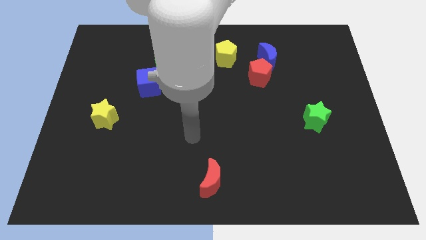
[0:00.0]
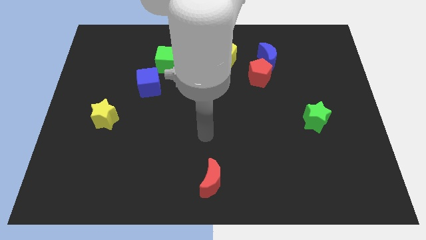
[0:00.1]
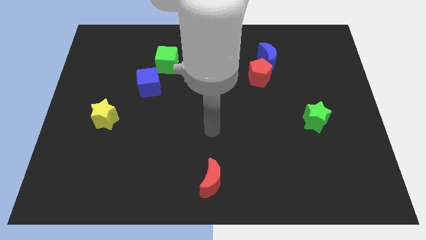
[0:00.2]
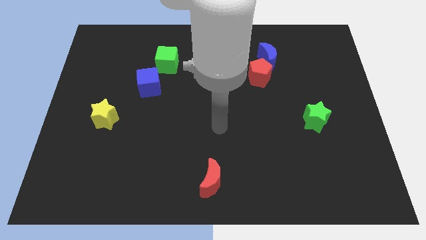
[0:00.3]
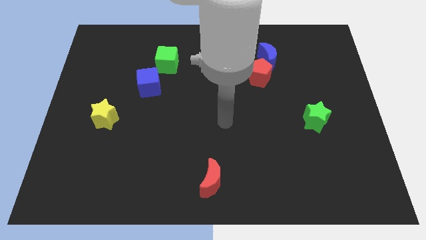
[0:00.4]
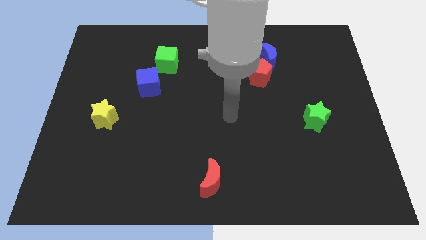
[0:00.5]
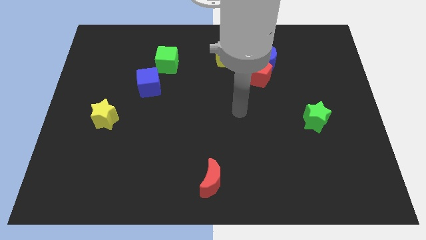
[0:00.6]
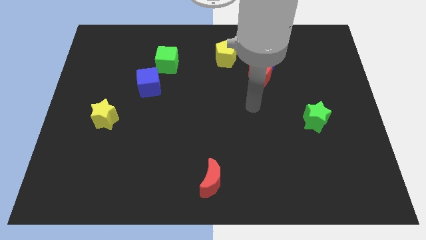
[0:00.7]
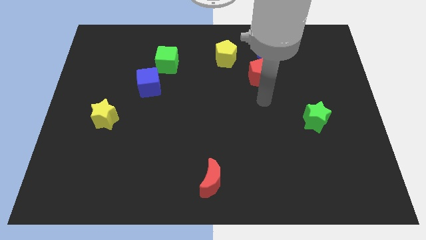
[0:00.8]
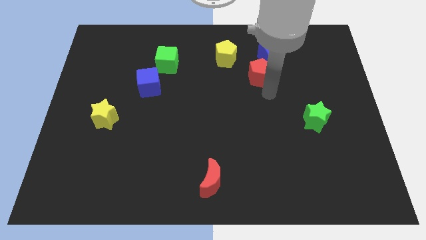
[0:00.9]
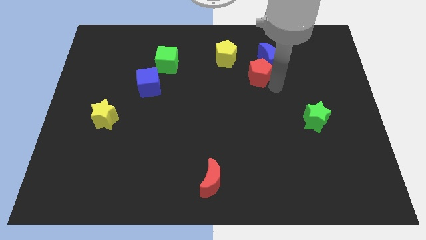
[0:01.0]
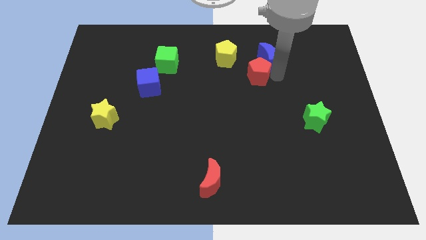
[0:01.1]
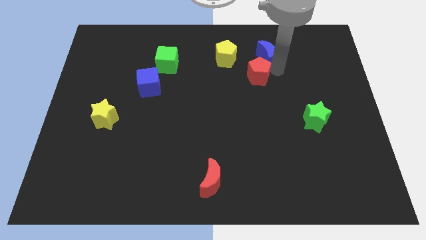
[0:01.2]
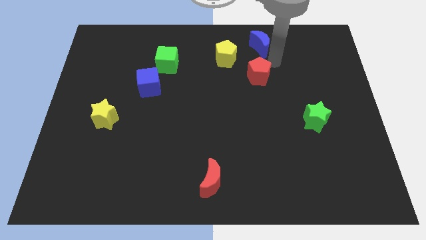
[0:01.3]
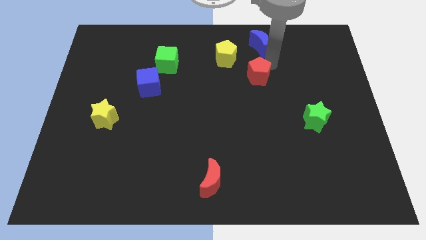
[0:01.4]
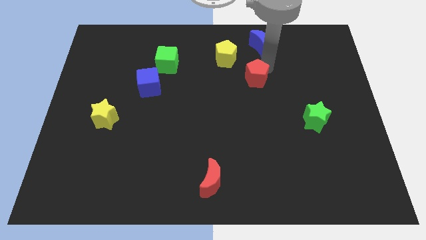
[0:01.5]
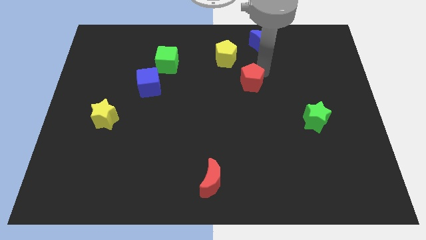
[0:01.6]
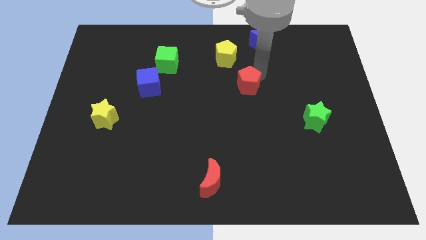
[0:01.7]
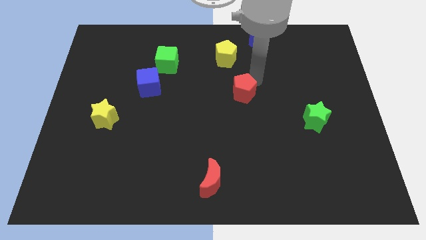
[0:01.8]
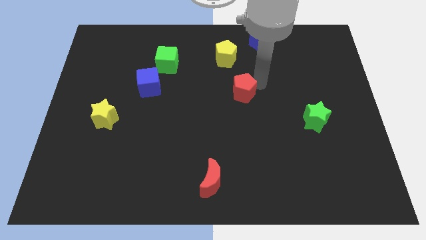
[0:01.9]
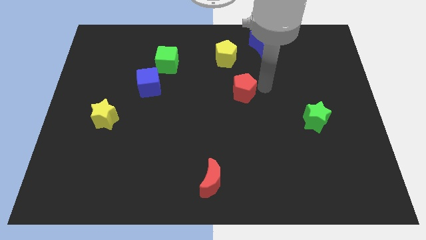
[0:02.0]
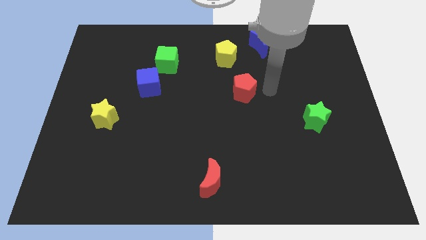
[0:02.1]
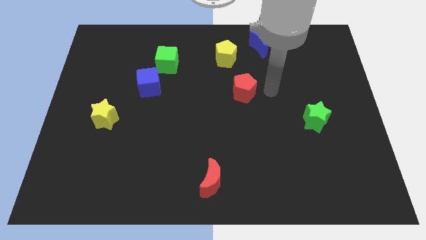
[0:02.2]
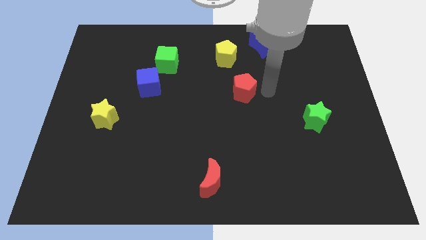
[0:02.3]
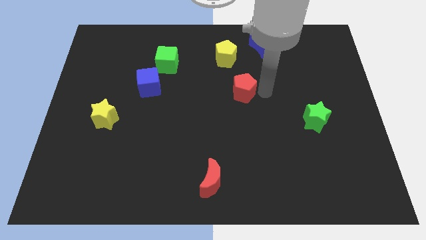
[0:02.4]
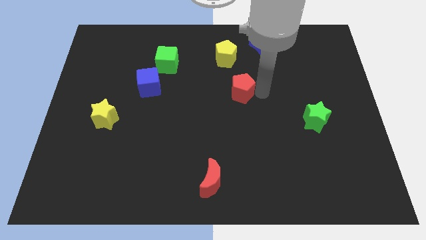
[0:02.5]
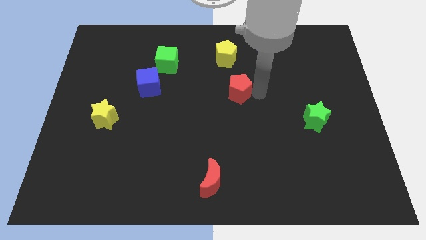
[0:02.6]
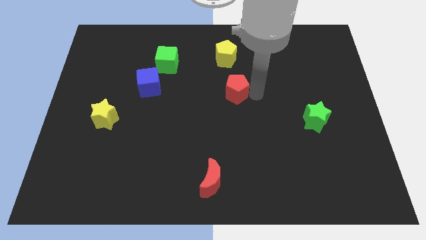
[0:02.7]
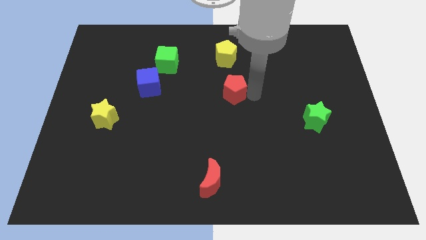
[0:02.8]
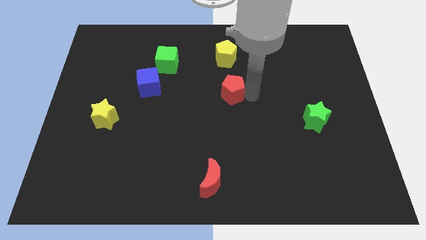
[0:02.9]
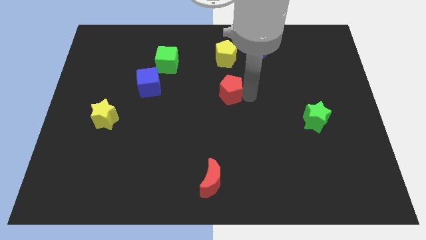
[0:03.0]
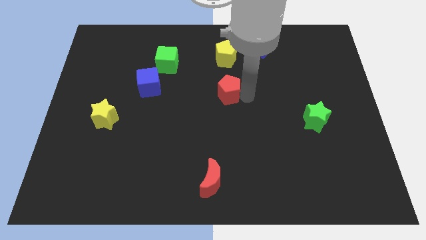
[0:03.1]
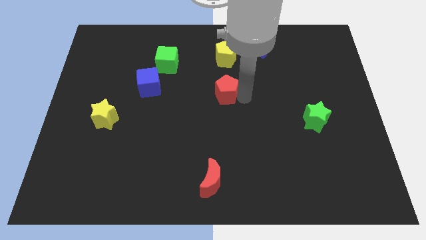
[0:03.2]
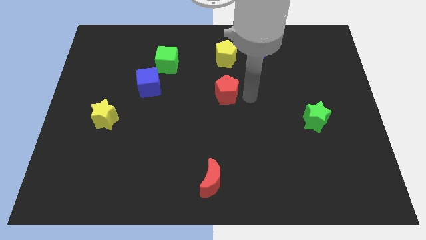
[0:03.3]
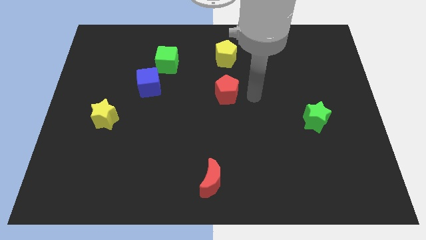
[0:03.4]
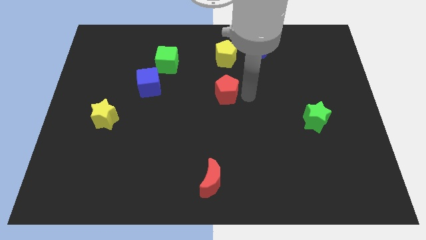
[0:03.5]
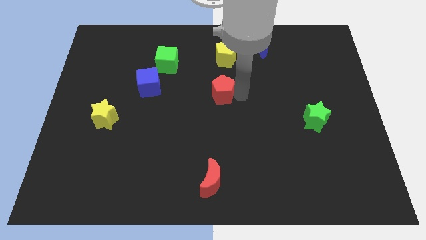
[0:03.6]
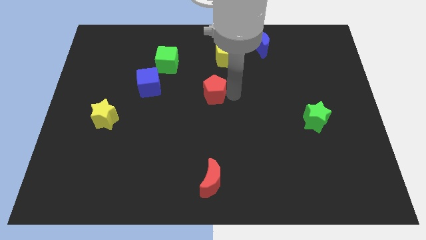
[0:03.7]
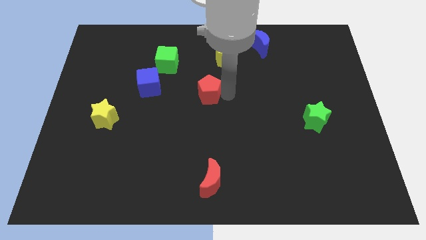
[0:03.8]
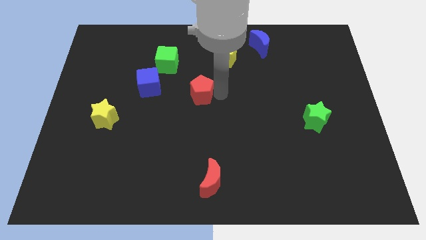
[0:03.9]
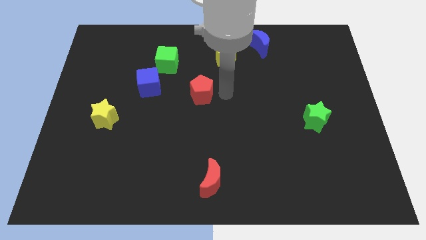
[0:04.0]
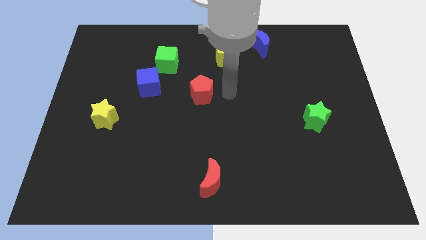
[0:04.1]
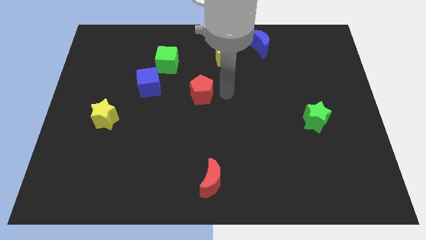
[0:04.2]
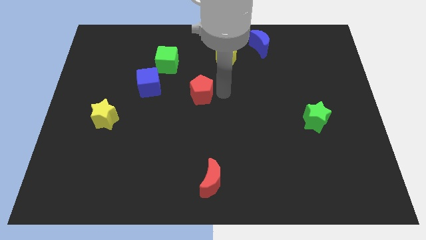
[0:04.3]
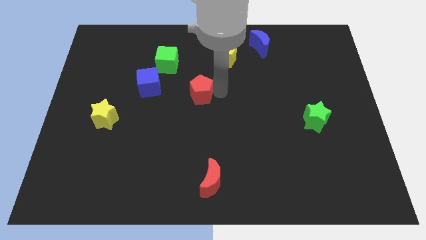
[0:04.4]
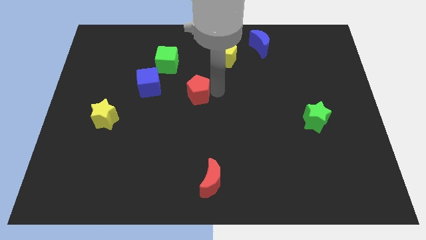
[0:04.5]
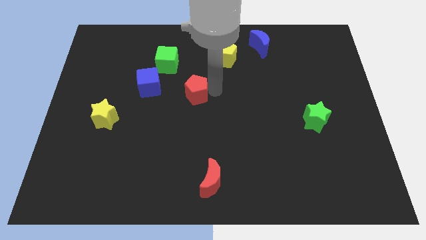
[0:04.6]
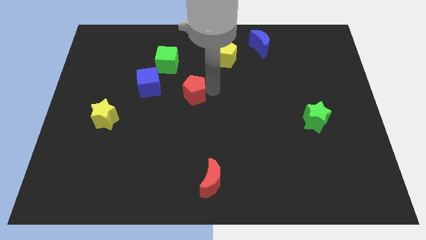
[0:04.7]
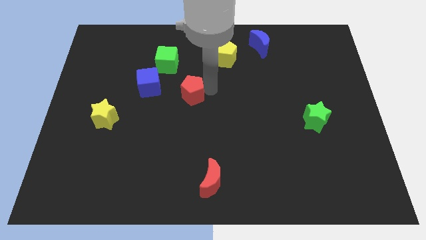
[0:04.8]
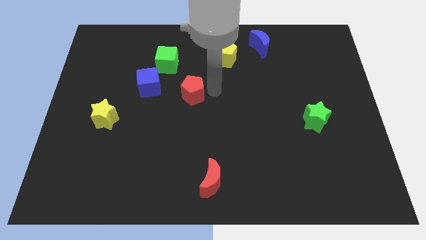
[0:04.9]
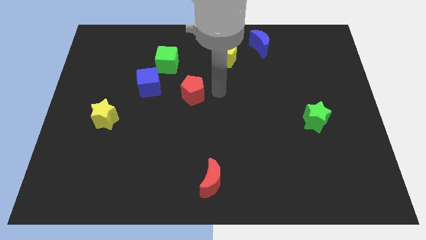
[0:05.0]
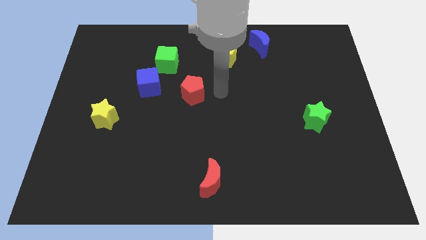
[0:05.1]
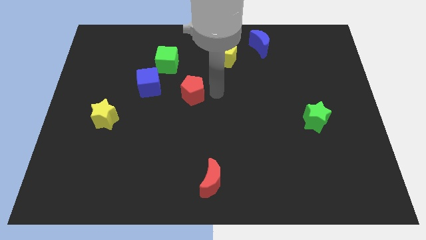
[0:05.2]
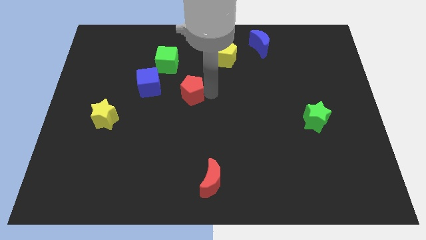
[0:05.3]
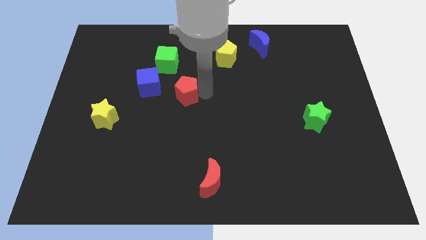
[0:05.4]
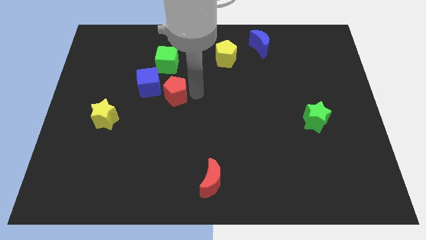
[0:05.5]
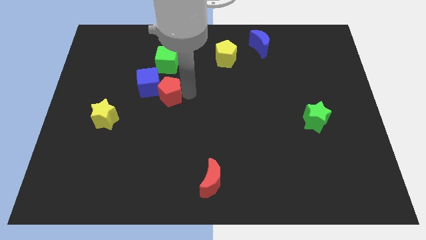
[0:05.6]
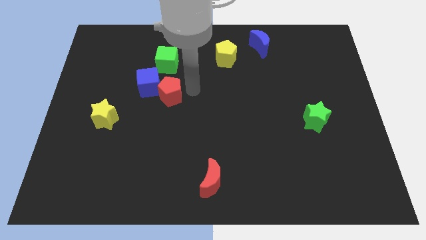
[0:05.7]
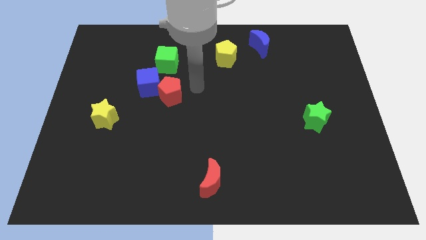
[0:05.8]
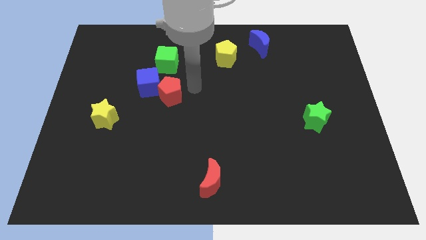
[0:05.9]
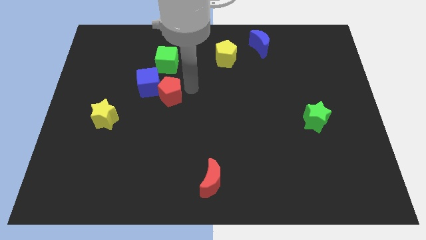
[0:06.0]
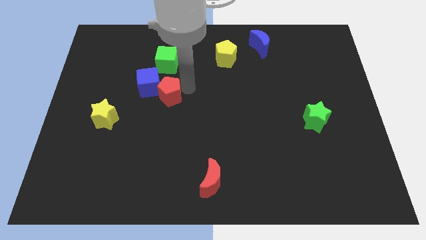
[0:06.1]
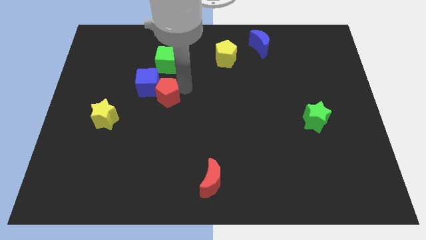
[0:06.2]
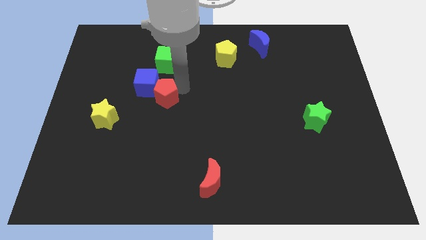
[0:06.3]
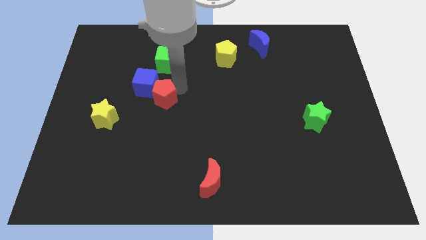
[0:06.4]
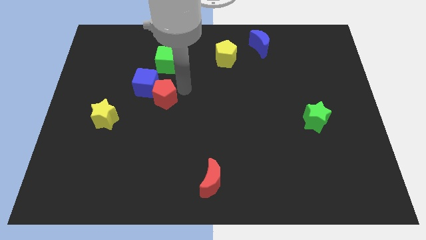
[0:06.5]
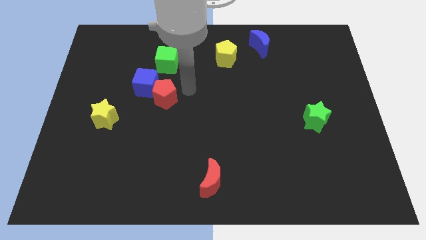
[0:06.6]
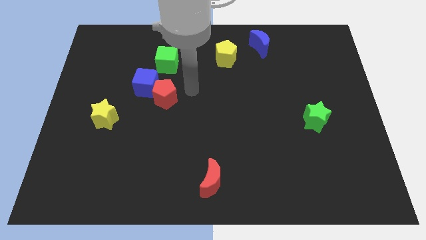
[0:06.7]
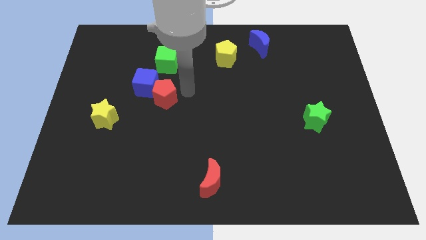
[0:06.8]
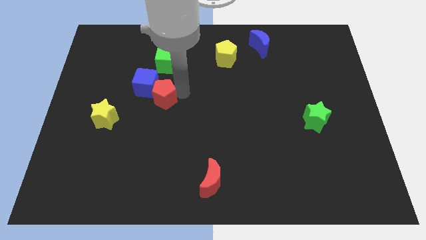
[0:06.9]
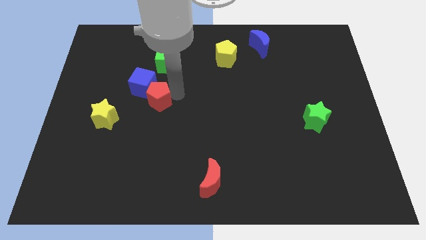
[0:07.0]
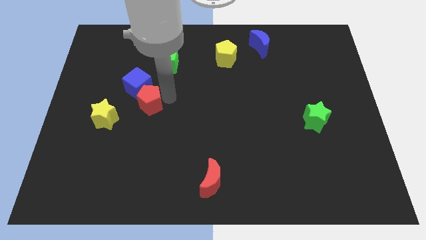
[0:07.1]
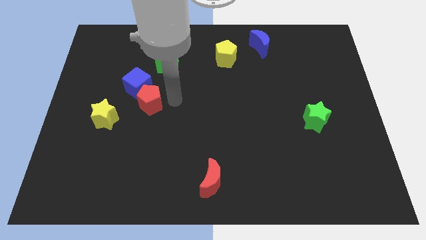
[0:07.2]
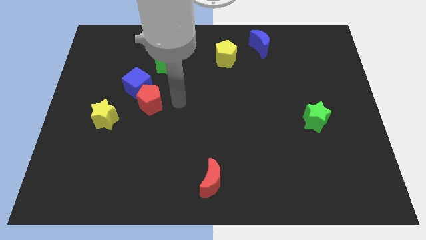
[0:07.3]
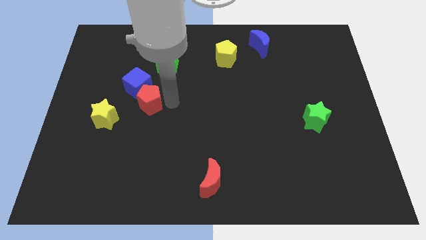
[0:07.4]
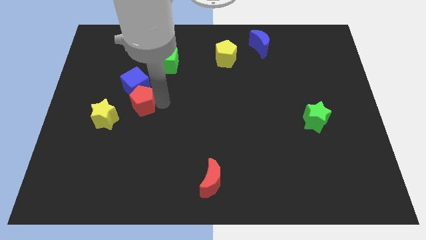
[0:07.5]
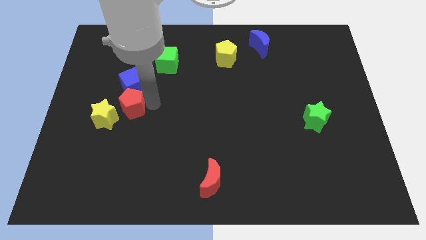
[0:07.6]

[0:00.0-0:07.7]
push the red pentagon to the bottom left side of the blue cube
